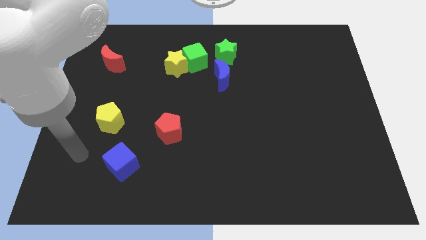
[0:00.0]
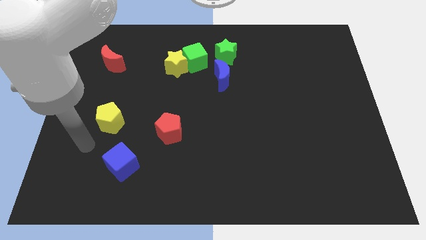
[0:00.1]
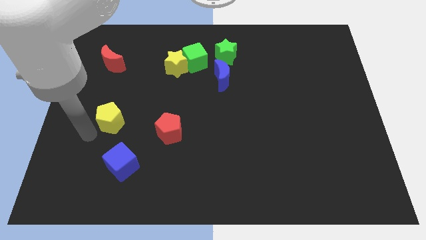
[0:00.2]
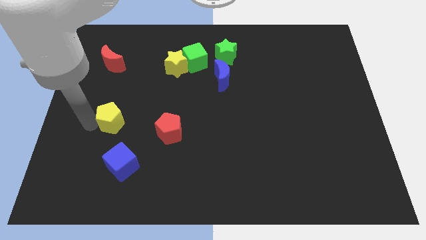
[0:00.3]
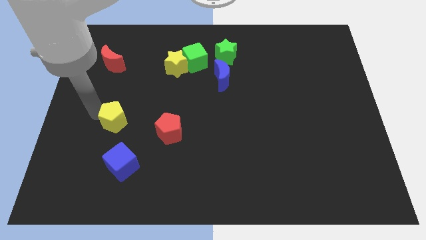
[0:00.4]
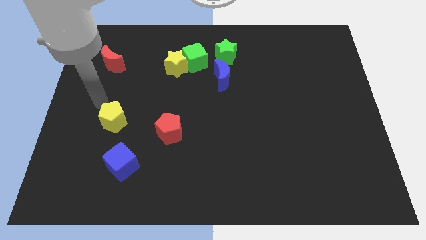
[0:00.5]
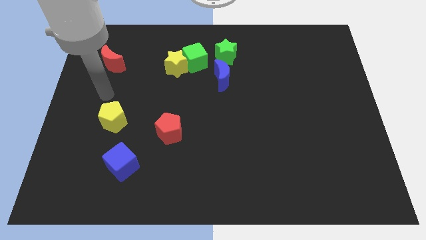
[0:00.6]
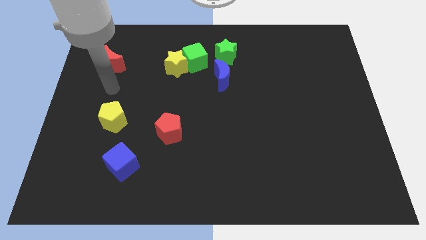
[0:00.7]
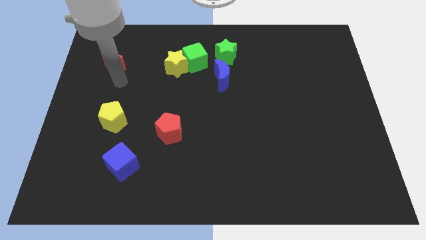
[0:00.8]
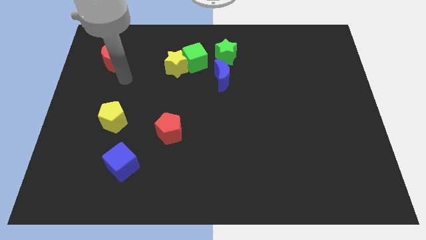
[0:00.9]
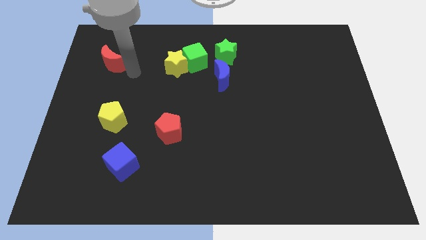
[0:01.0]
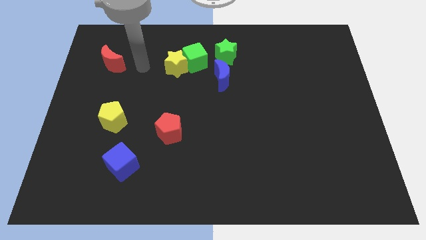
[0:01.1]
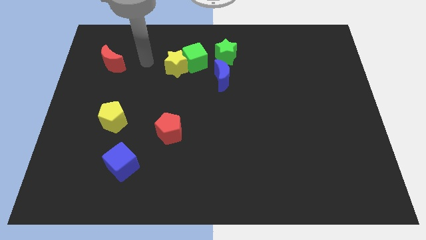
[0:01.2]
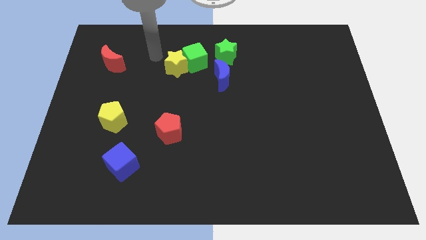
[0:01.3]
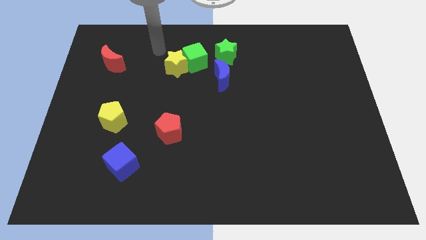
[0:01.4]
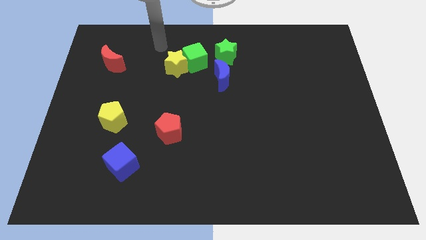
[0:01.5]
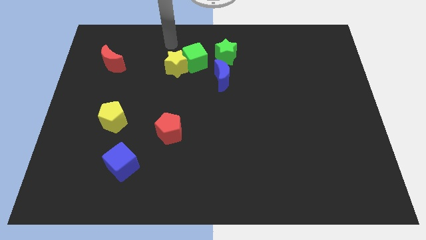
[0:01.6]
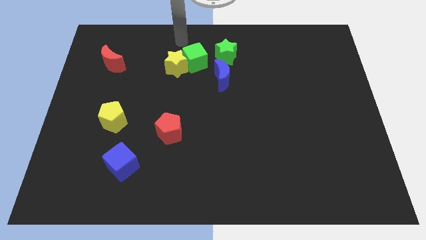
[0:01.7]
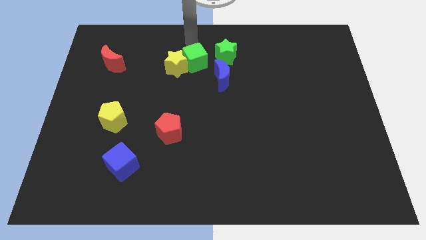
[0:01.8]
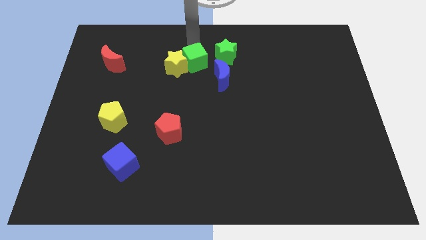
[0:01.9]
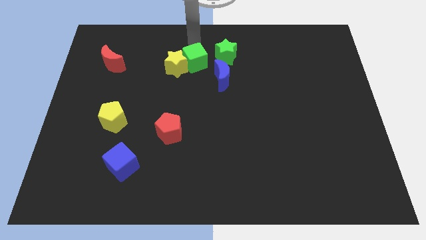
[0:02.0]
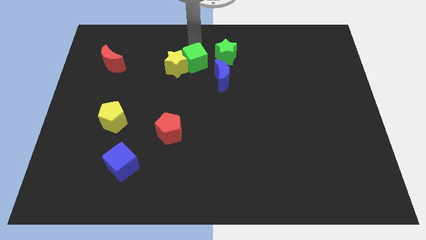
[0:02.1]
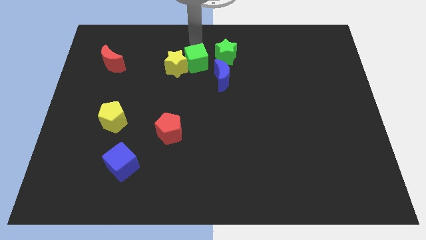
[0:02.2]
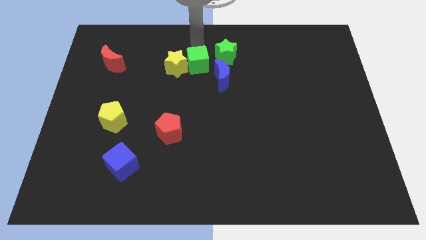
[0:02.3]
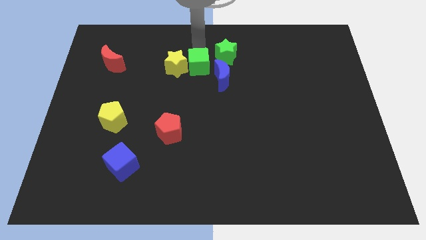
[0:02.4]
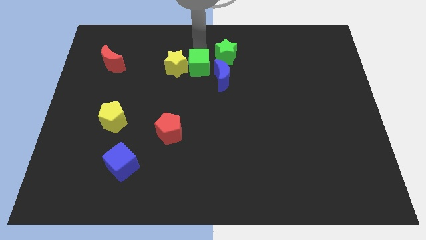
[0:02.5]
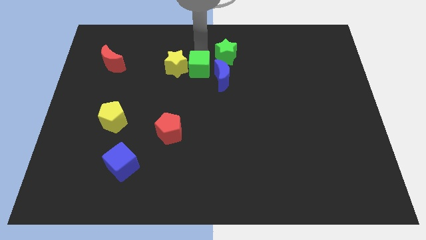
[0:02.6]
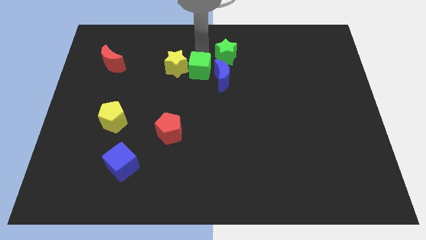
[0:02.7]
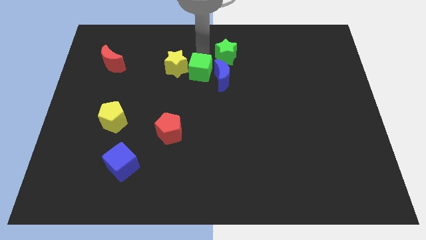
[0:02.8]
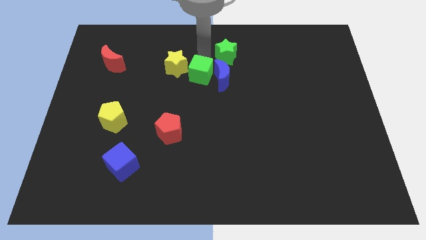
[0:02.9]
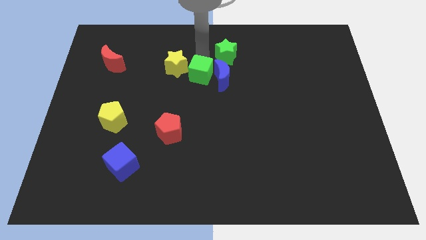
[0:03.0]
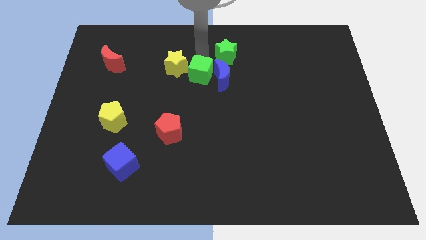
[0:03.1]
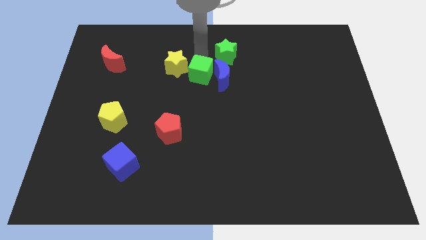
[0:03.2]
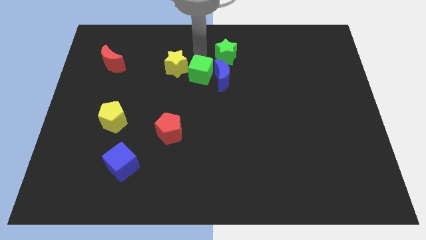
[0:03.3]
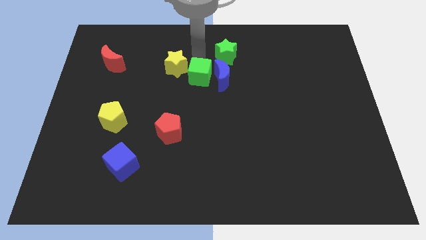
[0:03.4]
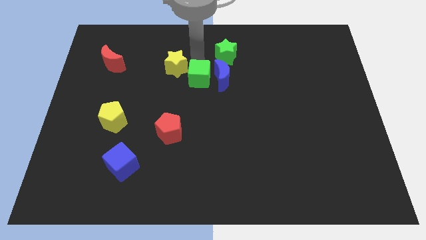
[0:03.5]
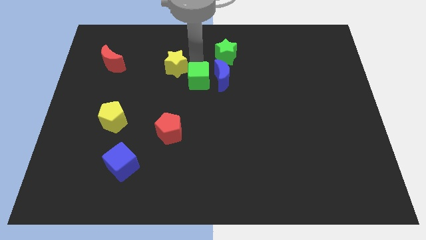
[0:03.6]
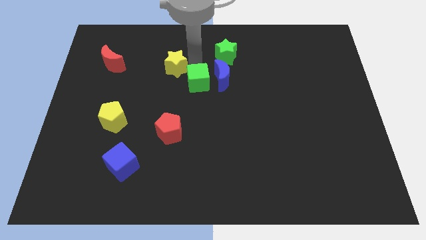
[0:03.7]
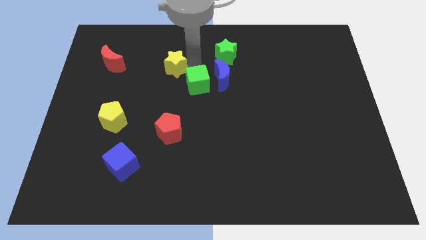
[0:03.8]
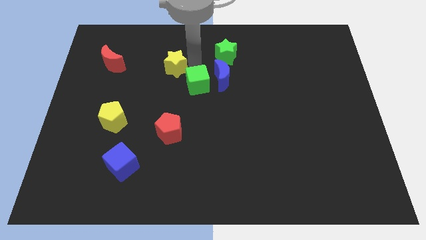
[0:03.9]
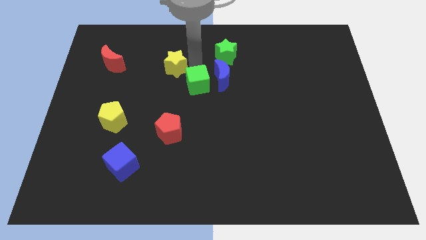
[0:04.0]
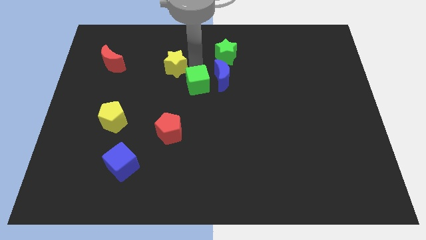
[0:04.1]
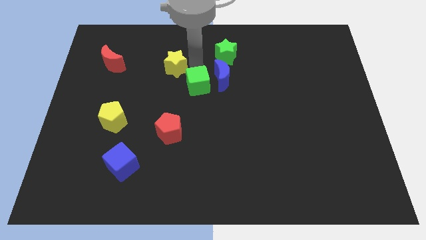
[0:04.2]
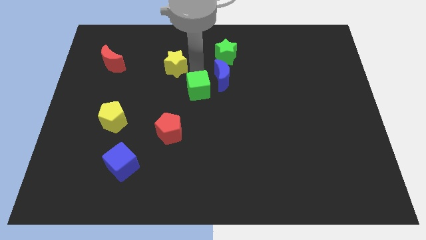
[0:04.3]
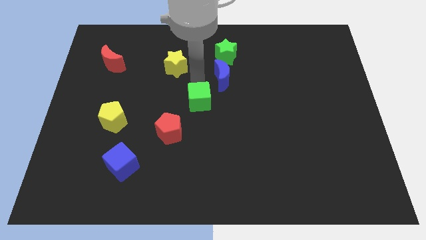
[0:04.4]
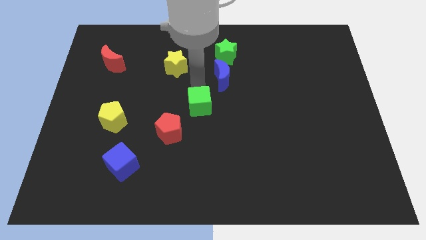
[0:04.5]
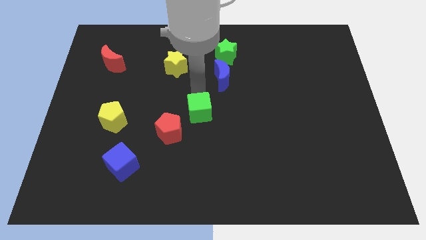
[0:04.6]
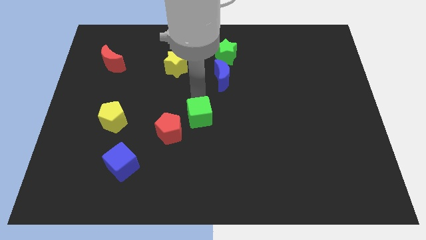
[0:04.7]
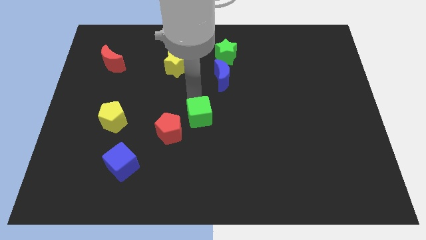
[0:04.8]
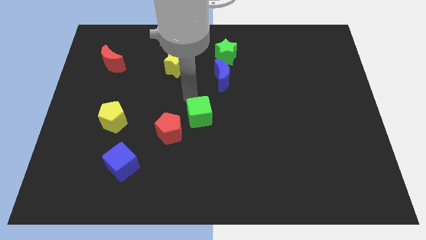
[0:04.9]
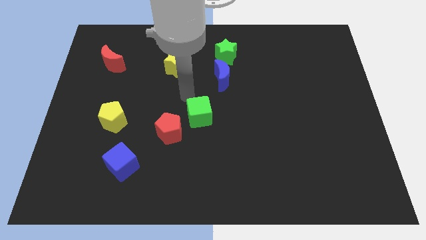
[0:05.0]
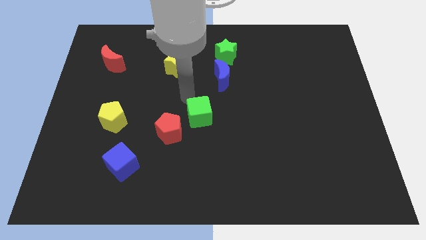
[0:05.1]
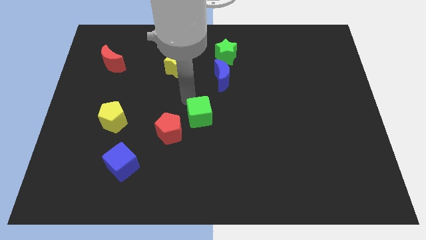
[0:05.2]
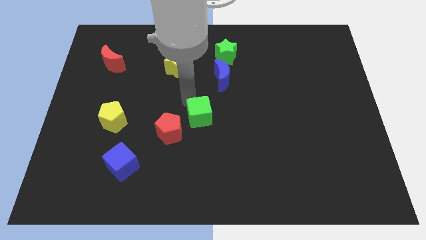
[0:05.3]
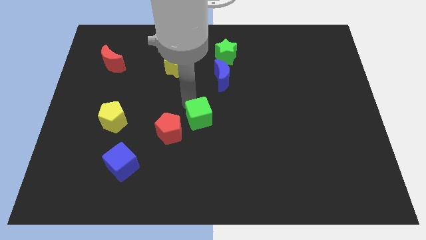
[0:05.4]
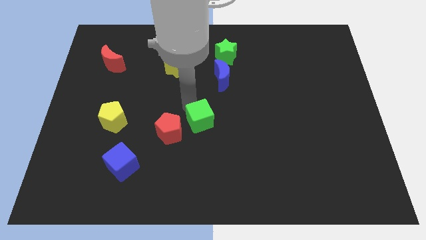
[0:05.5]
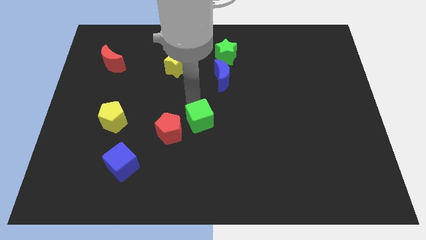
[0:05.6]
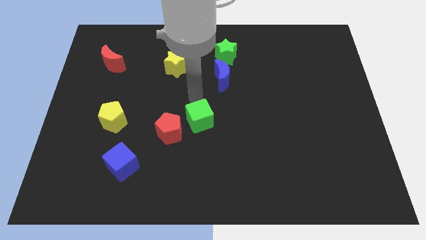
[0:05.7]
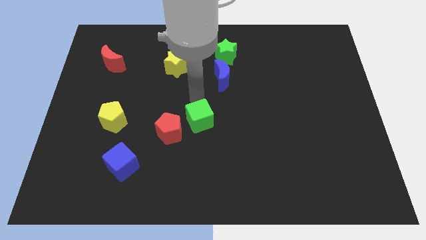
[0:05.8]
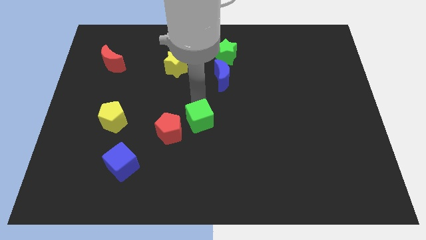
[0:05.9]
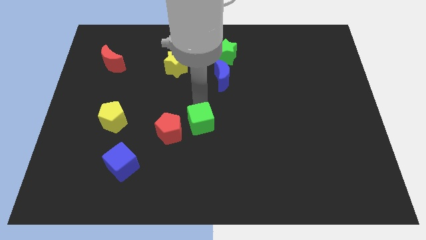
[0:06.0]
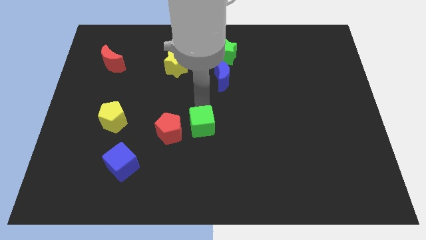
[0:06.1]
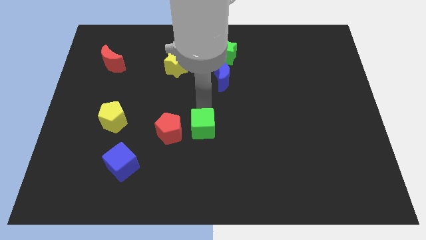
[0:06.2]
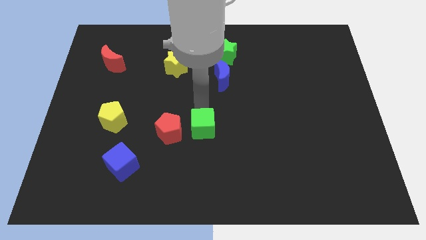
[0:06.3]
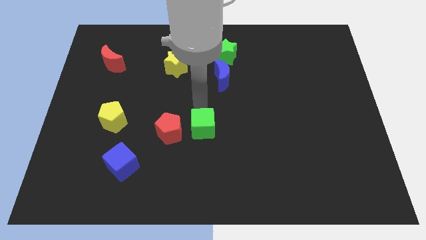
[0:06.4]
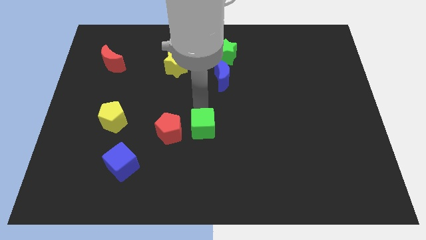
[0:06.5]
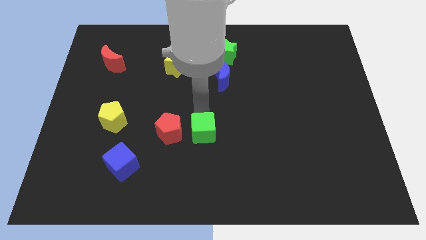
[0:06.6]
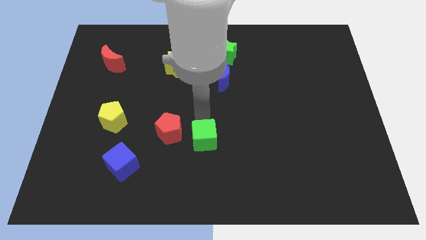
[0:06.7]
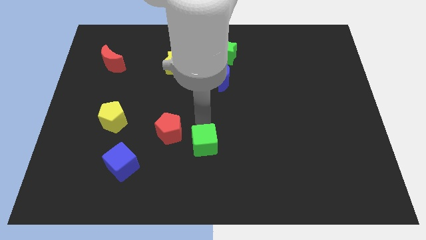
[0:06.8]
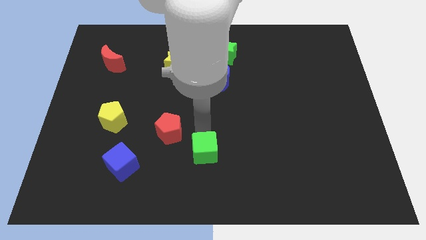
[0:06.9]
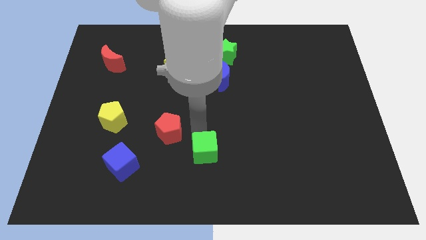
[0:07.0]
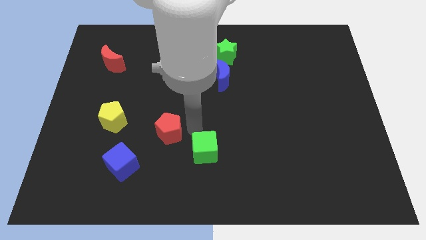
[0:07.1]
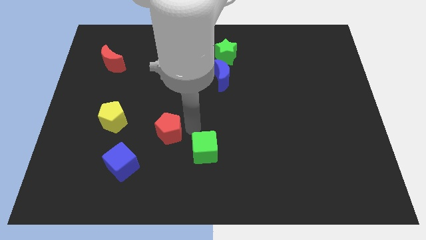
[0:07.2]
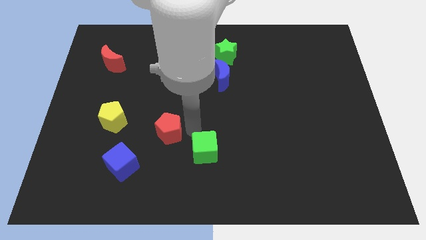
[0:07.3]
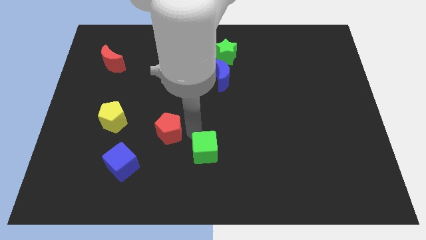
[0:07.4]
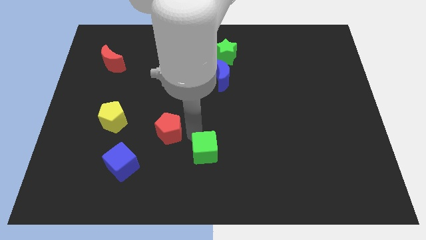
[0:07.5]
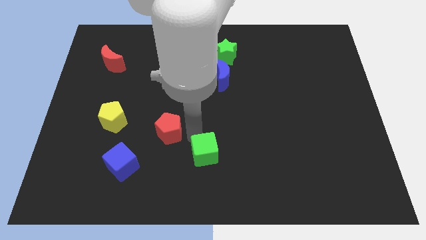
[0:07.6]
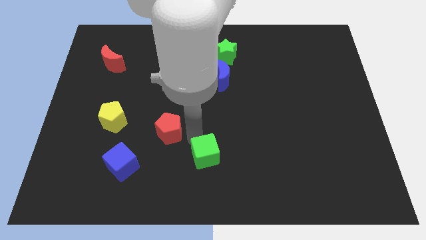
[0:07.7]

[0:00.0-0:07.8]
move the green cube to the bottom
